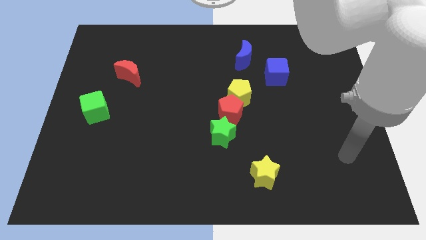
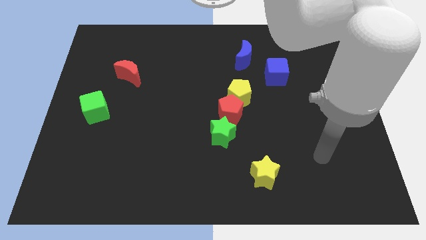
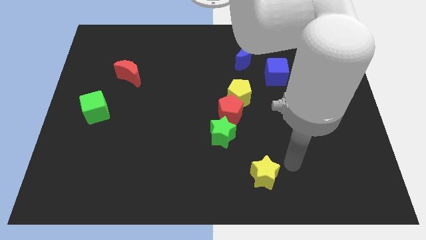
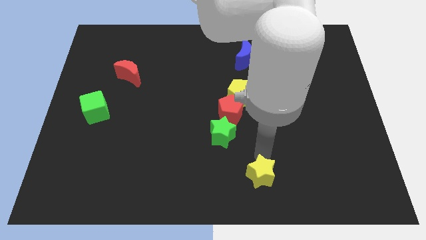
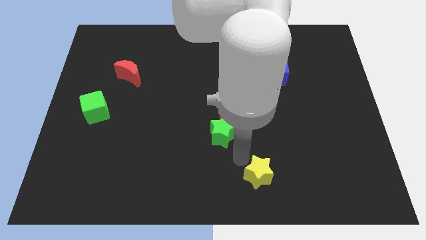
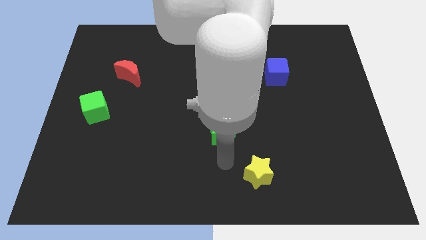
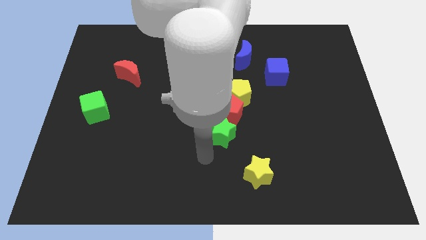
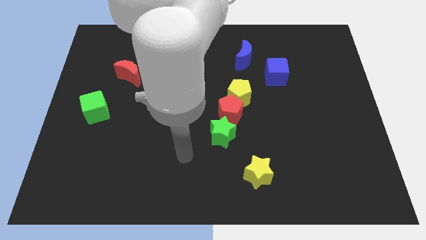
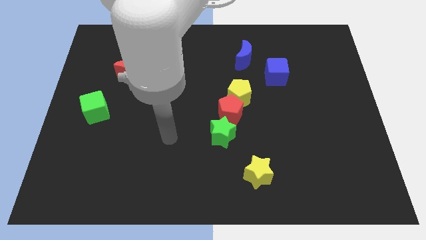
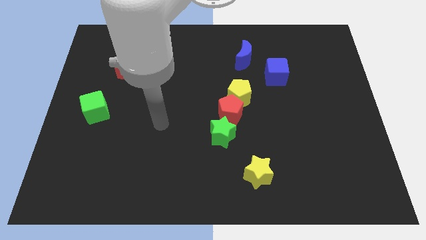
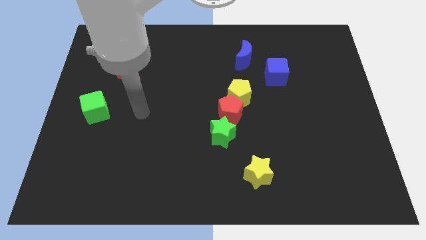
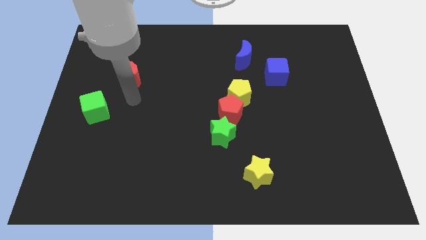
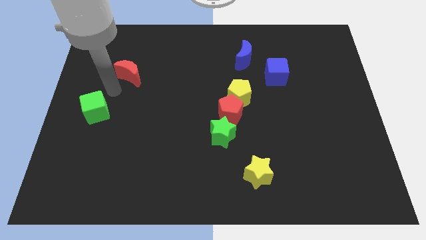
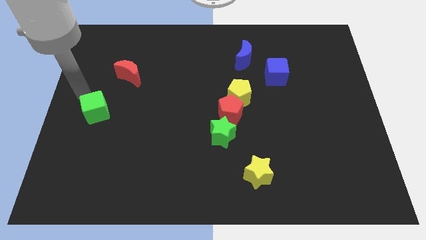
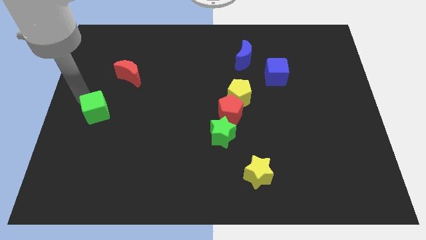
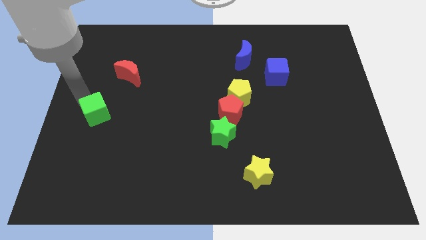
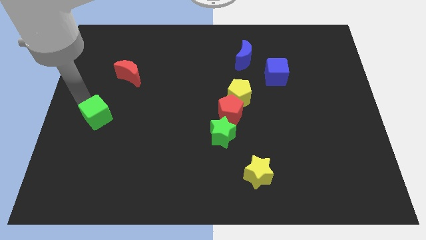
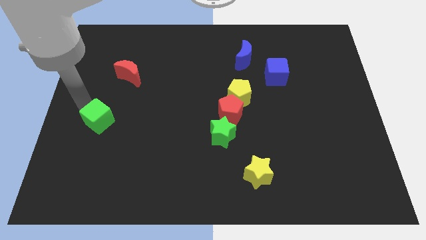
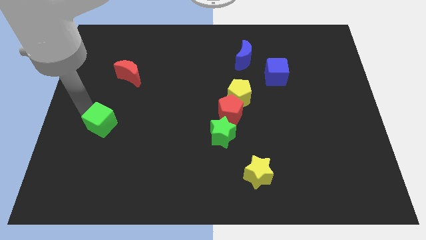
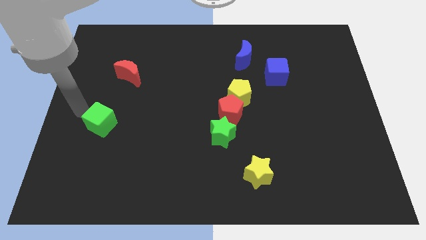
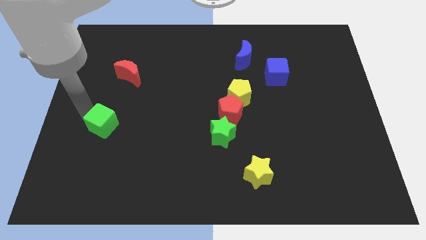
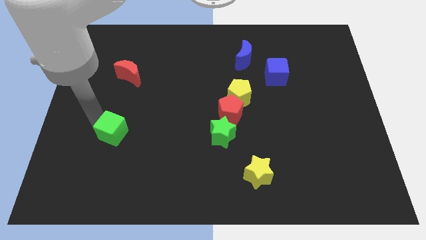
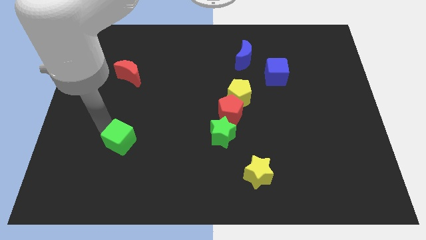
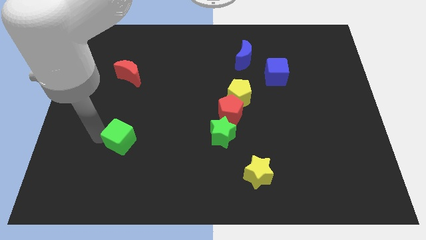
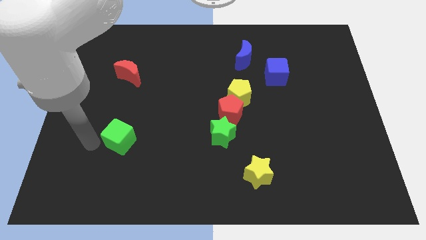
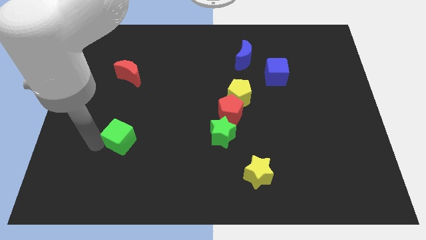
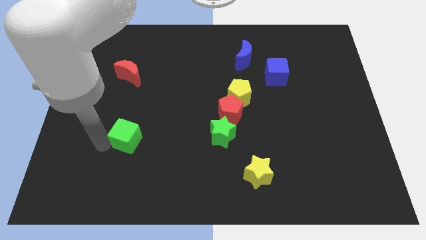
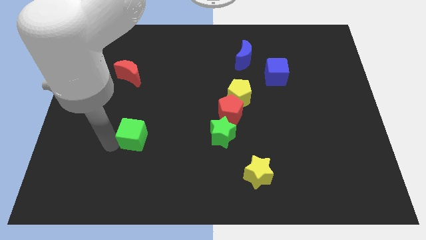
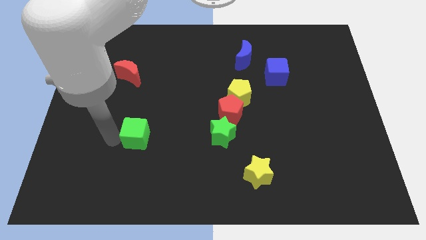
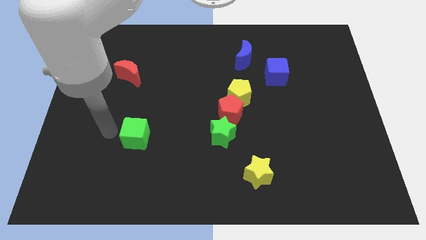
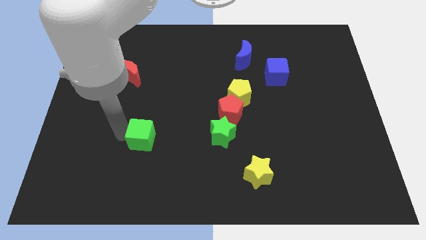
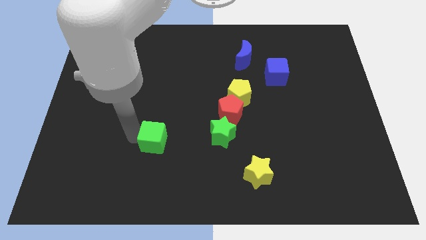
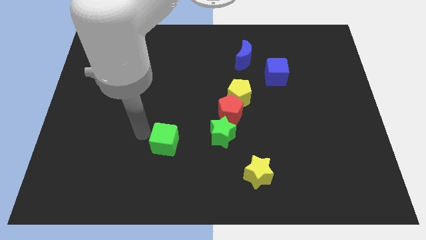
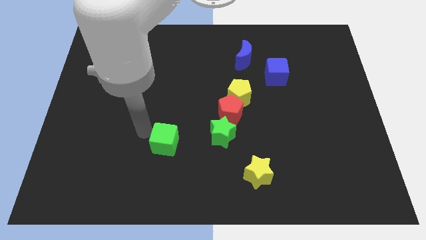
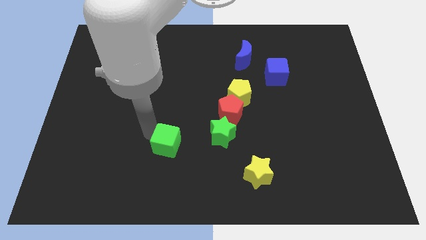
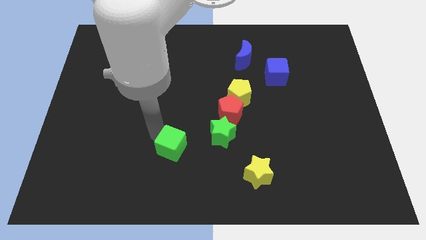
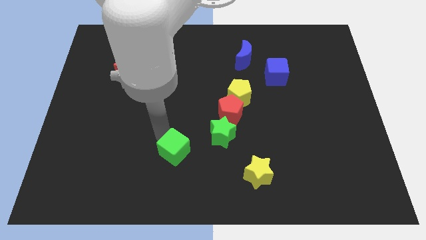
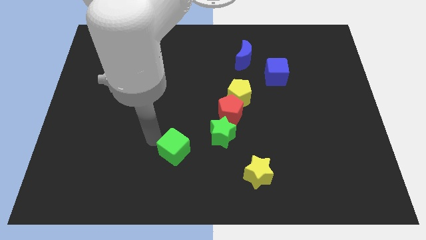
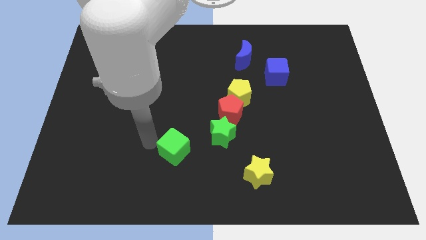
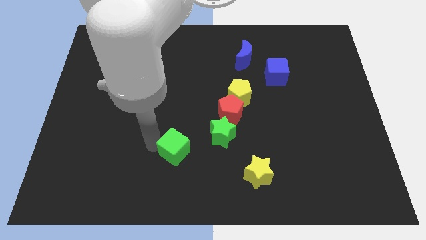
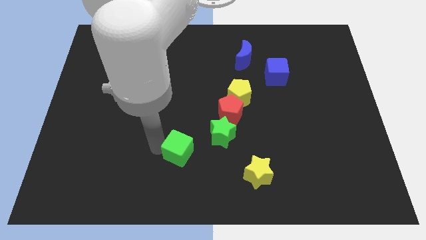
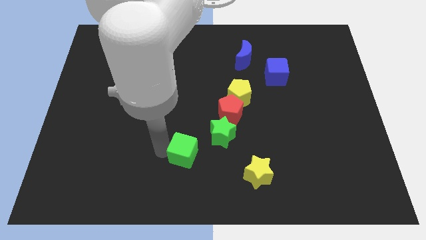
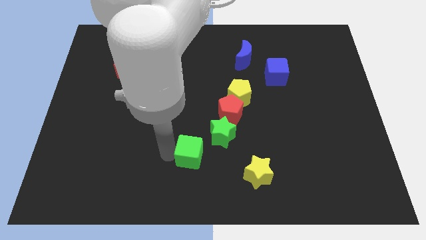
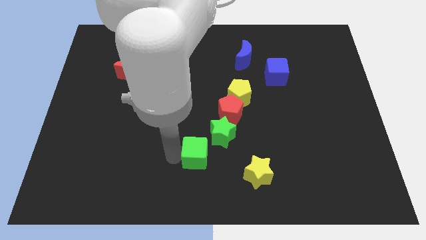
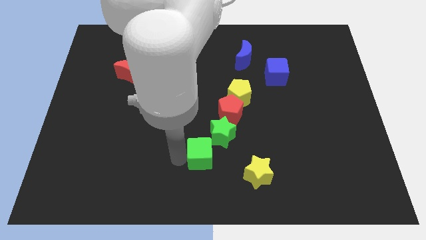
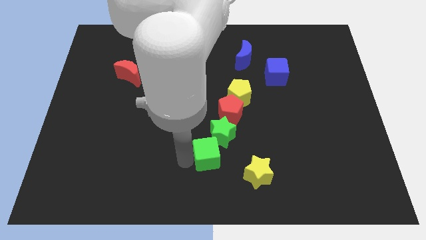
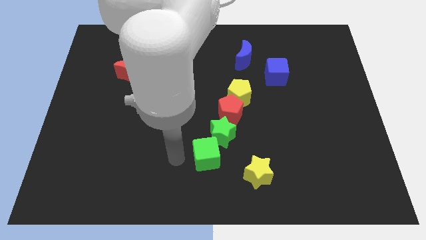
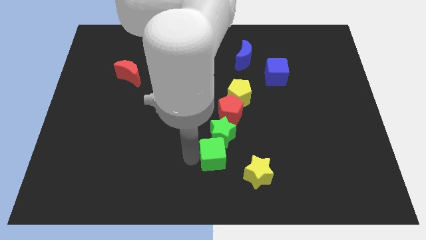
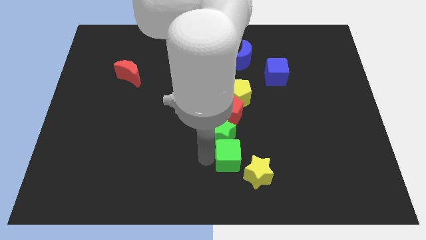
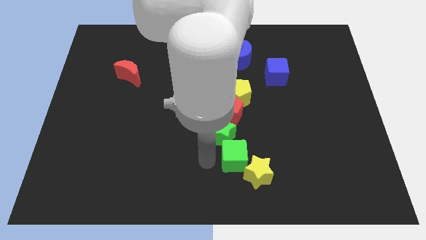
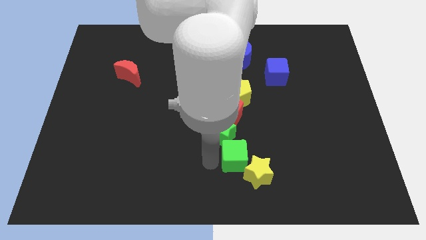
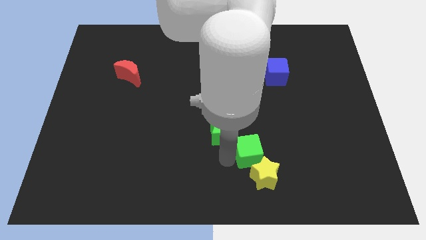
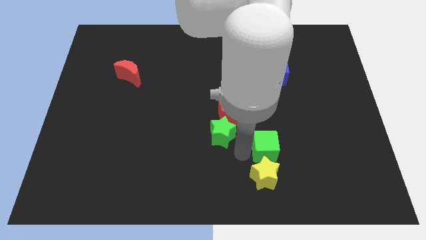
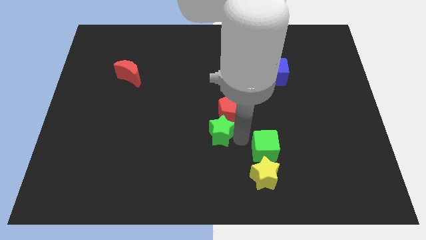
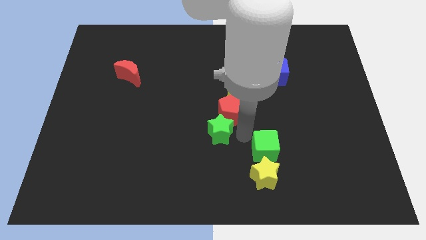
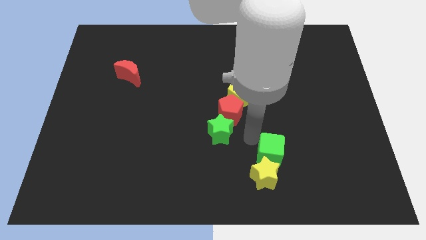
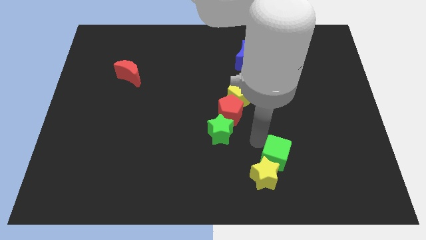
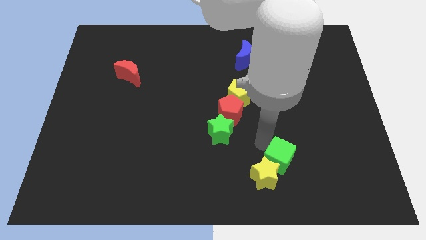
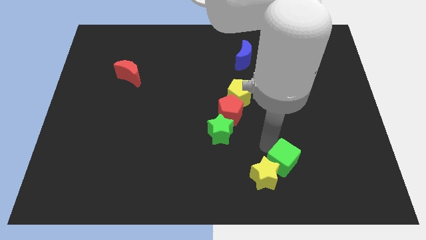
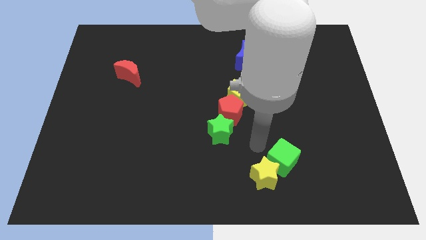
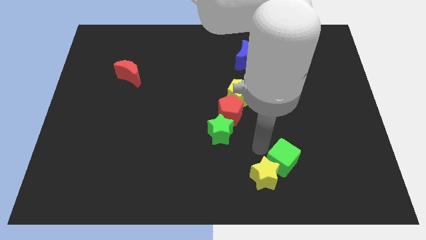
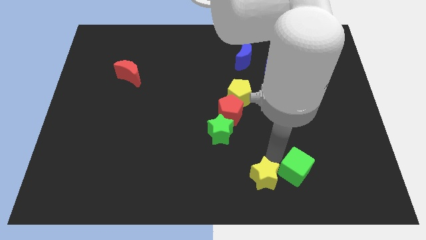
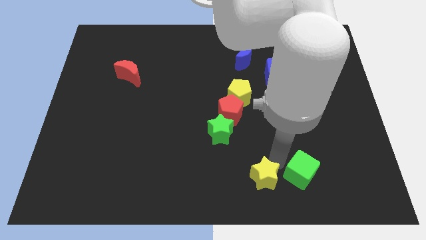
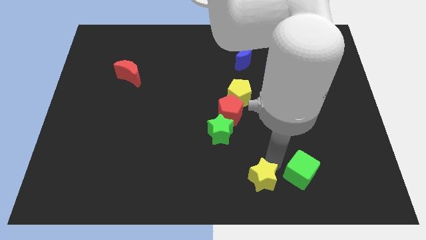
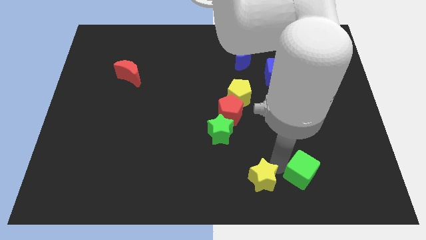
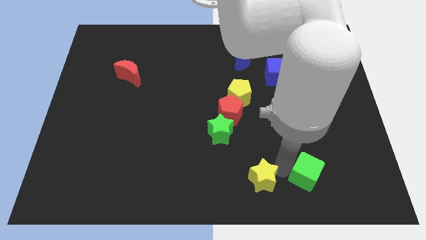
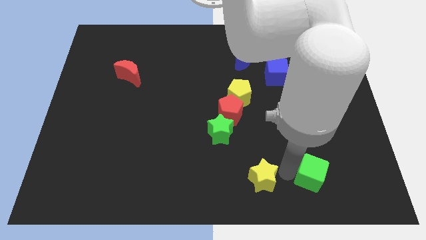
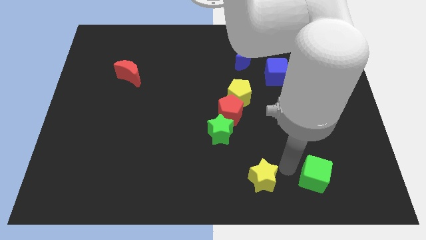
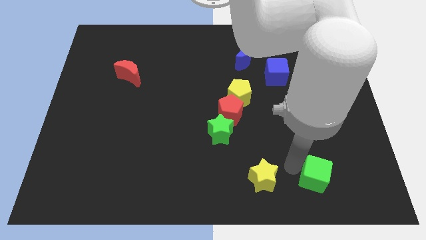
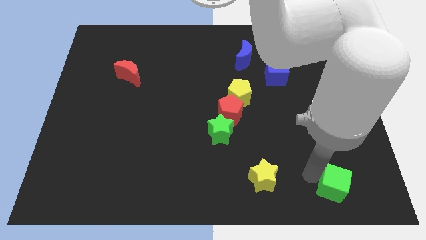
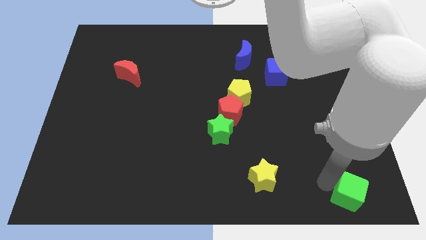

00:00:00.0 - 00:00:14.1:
slide the green cube to the lower right corner

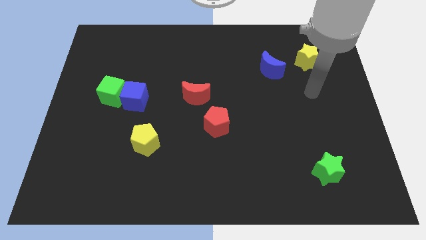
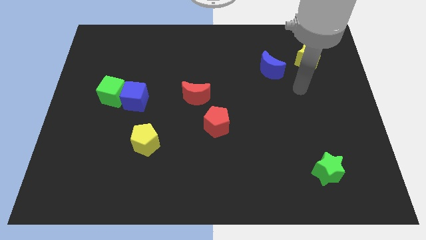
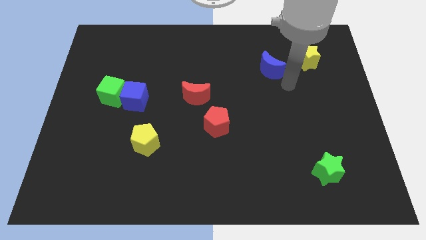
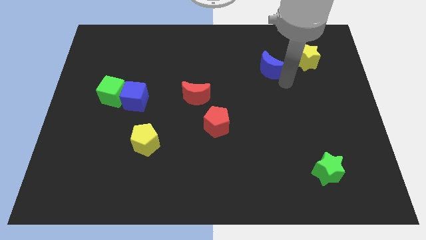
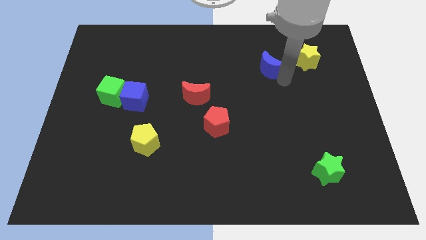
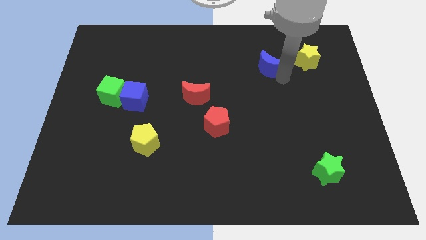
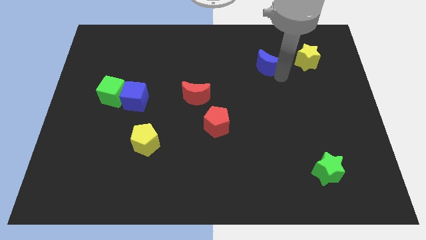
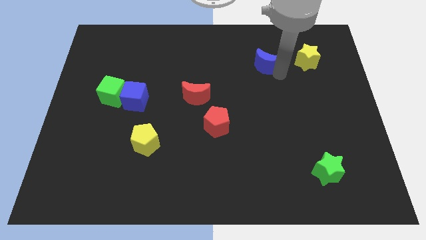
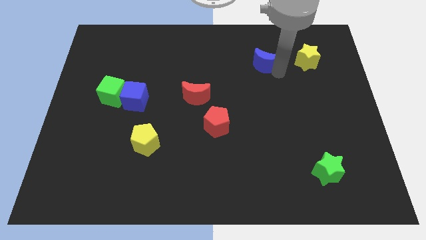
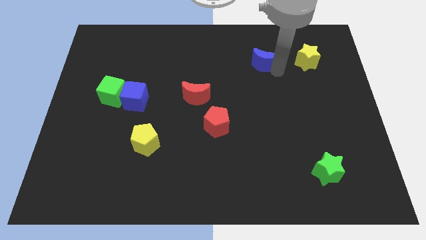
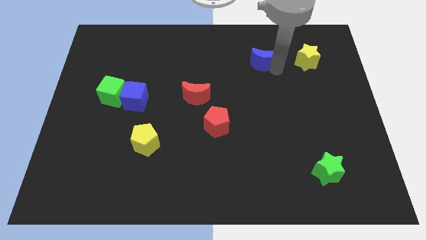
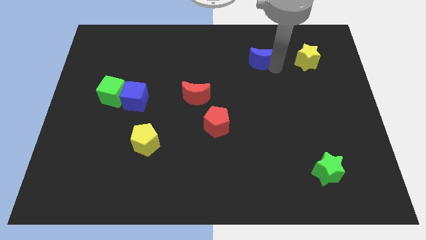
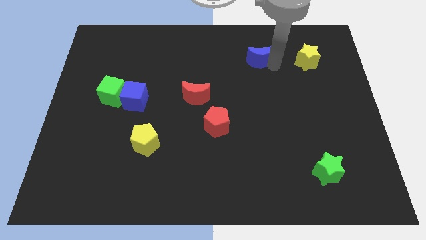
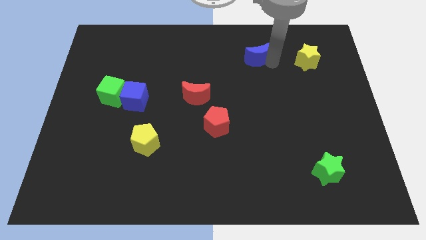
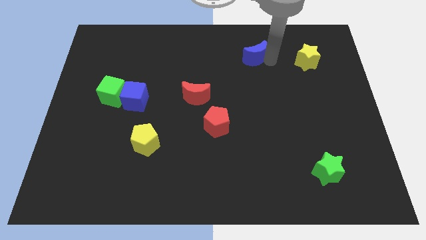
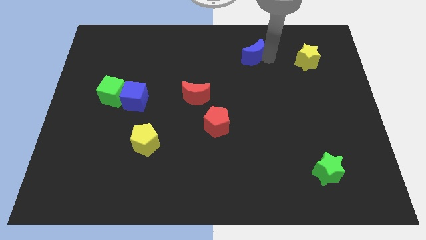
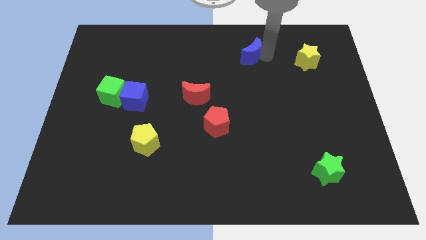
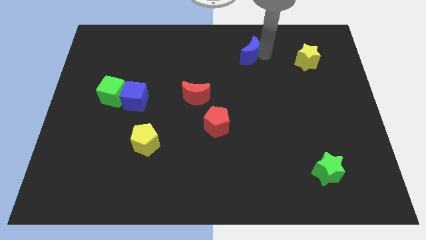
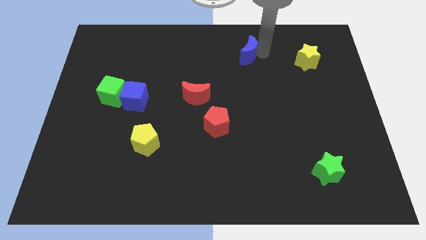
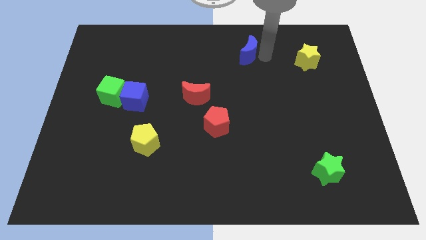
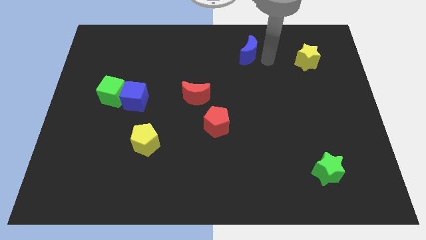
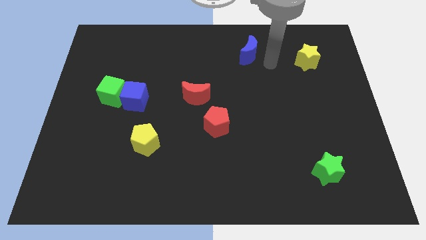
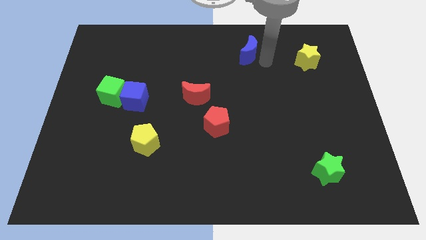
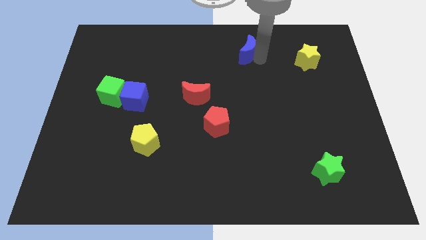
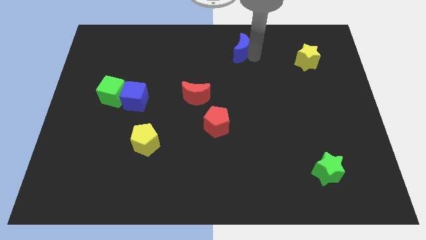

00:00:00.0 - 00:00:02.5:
push the blue moon to the top
